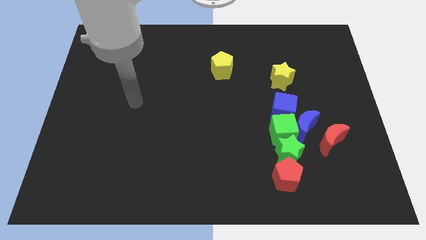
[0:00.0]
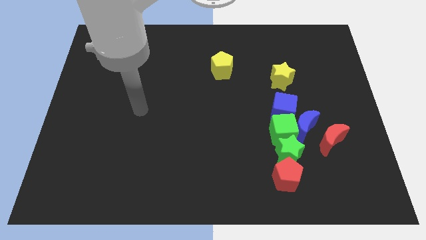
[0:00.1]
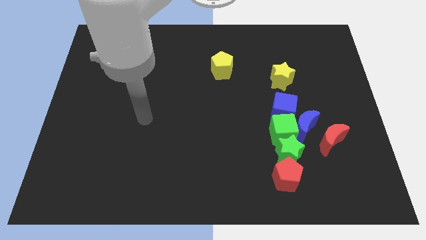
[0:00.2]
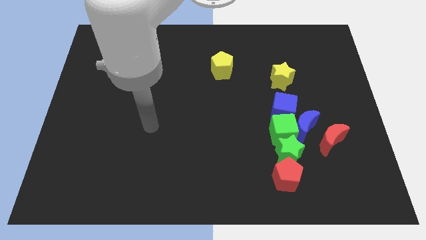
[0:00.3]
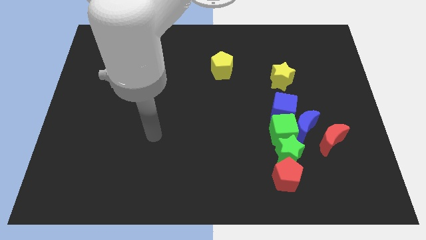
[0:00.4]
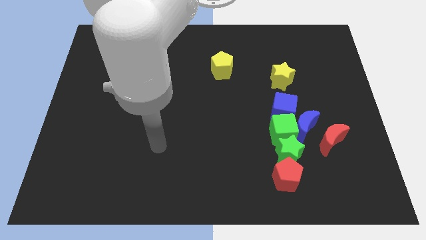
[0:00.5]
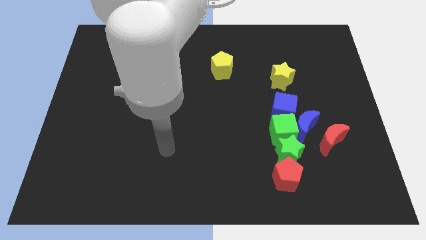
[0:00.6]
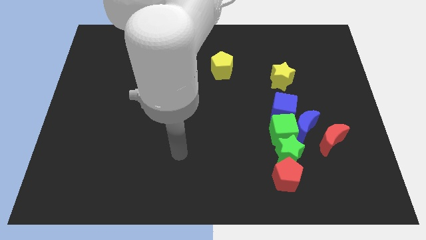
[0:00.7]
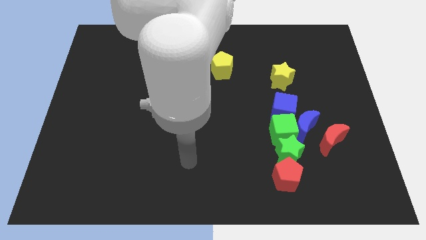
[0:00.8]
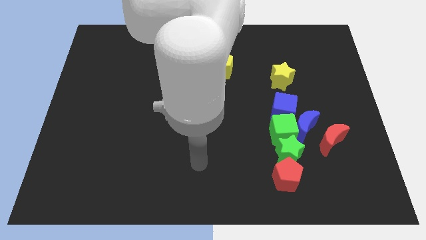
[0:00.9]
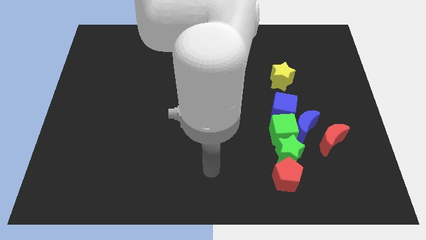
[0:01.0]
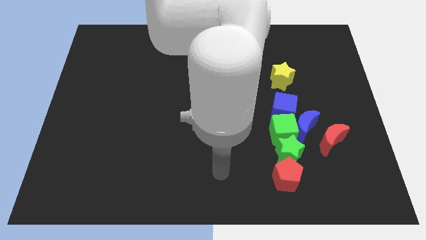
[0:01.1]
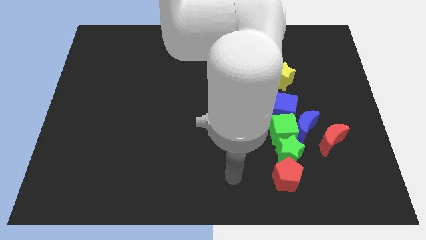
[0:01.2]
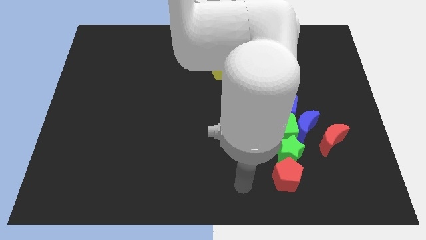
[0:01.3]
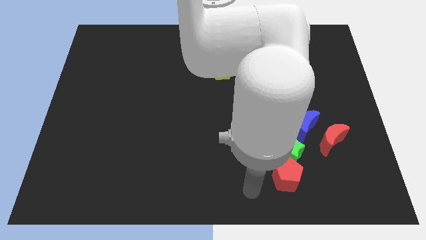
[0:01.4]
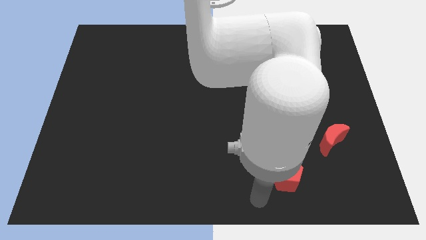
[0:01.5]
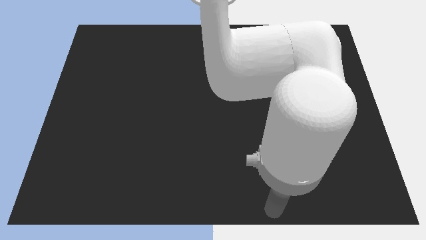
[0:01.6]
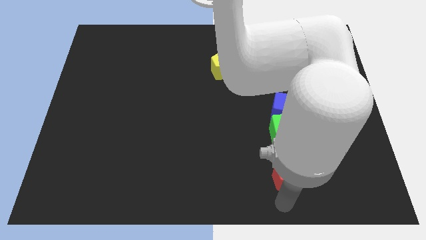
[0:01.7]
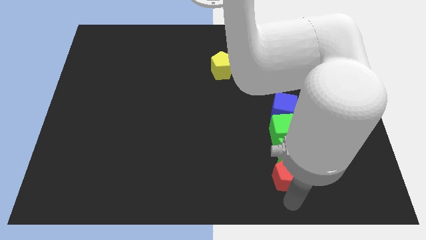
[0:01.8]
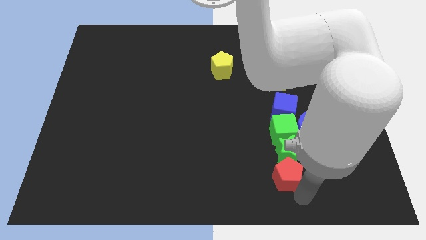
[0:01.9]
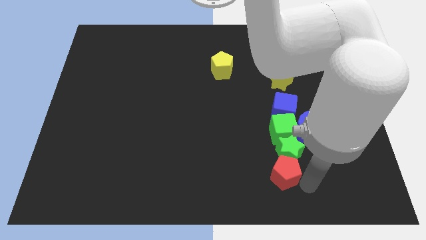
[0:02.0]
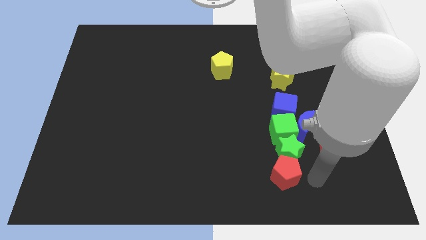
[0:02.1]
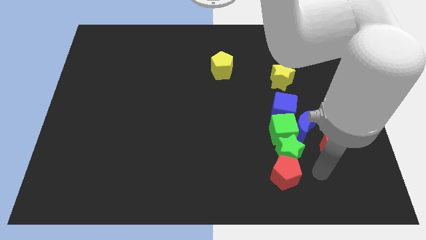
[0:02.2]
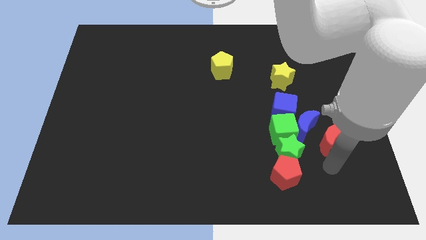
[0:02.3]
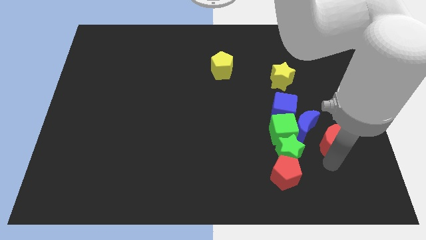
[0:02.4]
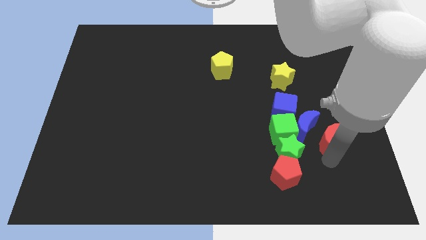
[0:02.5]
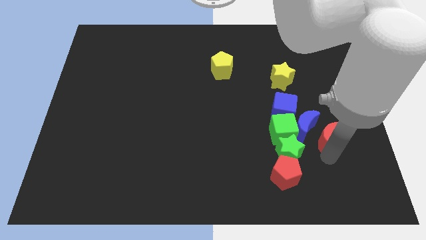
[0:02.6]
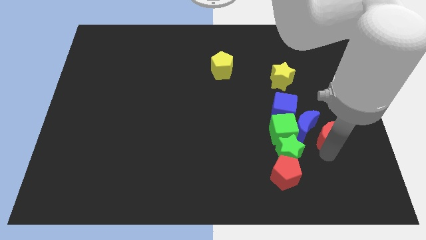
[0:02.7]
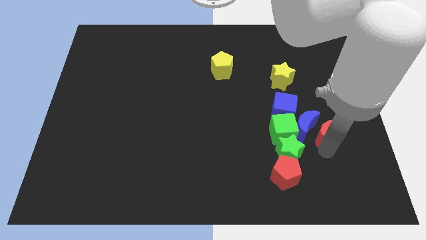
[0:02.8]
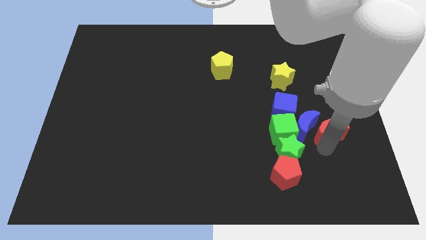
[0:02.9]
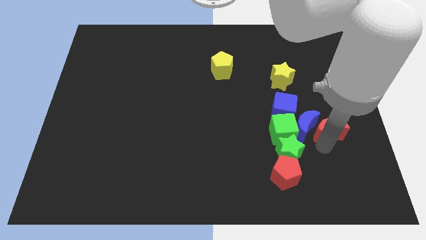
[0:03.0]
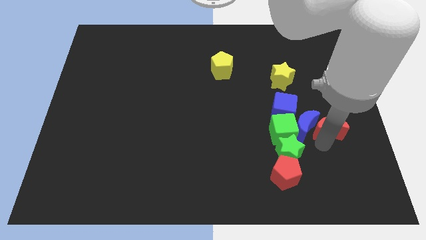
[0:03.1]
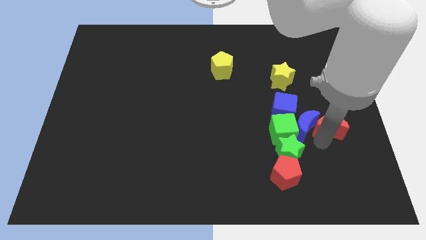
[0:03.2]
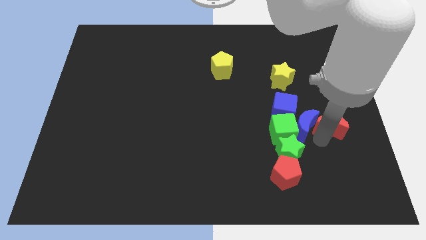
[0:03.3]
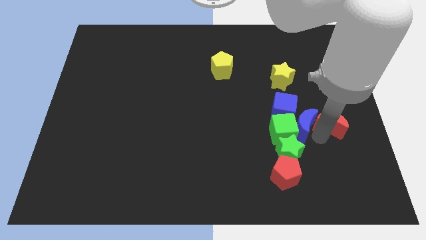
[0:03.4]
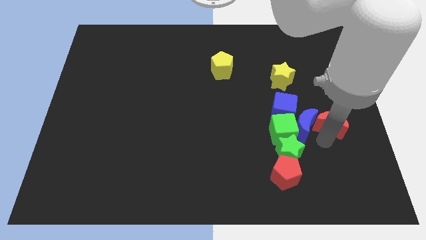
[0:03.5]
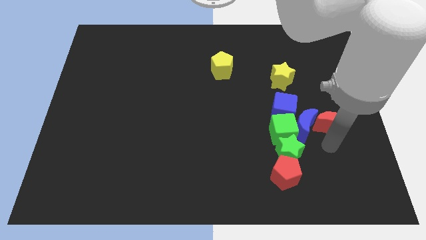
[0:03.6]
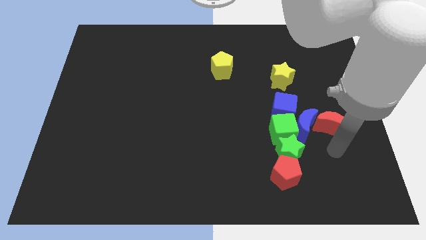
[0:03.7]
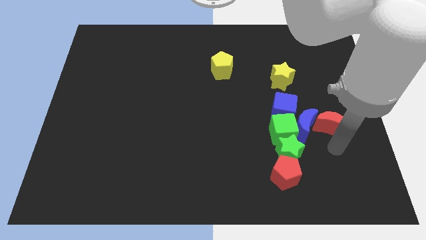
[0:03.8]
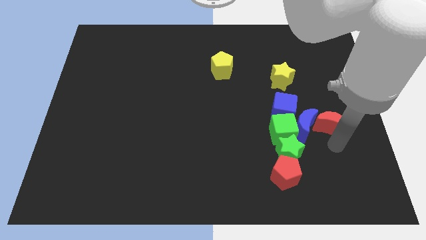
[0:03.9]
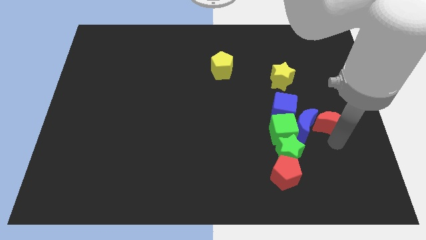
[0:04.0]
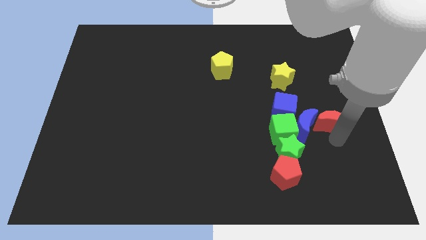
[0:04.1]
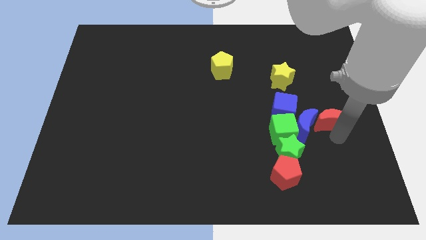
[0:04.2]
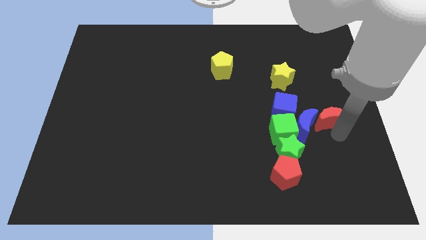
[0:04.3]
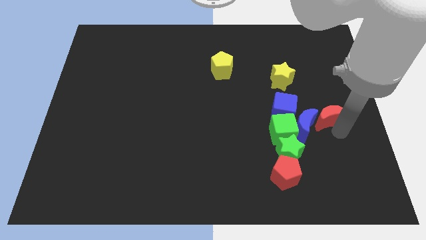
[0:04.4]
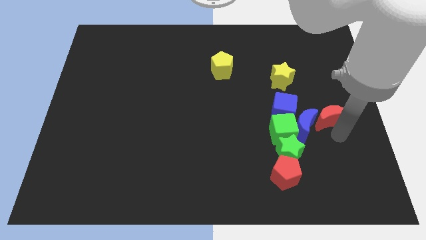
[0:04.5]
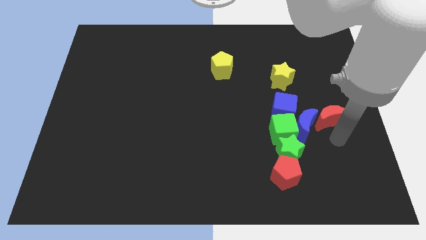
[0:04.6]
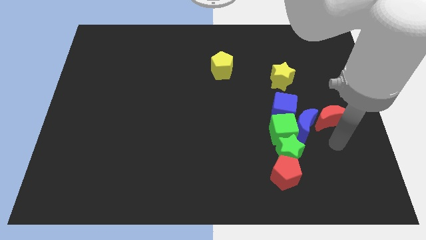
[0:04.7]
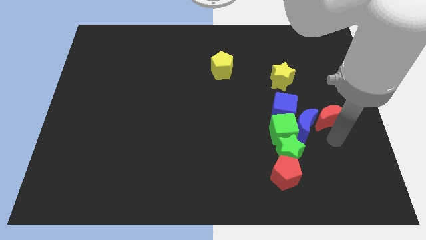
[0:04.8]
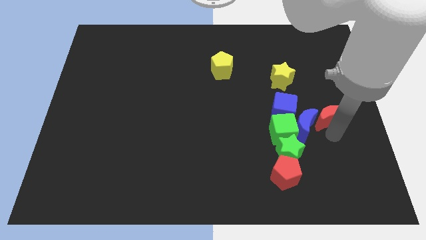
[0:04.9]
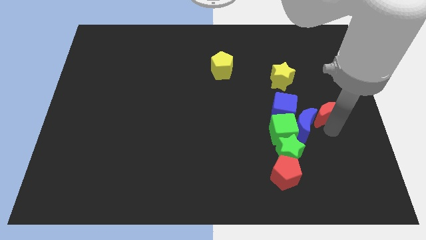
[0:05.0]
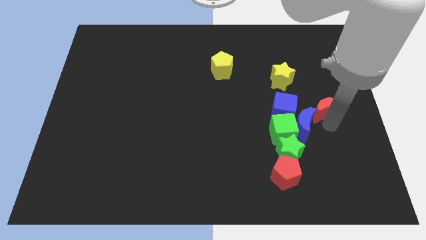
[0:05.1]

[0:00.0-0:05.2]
slightly push the red moon up

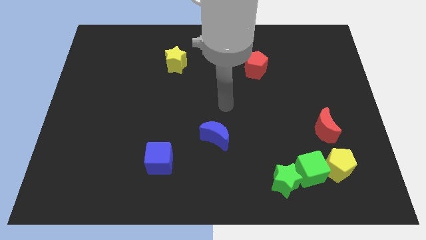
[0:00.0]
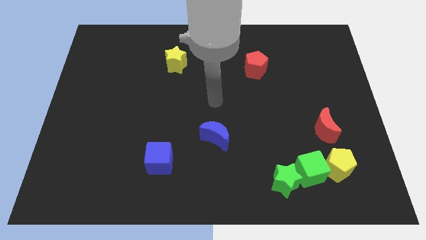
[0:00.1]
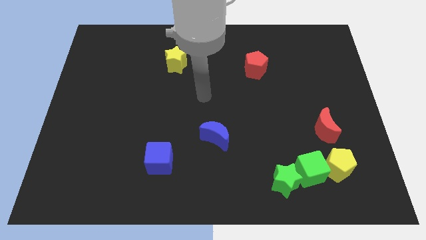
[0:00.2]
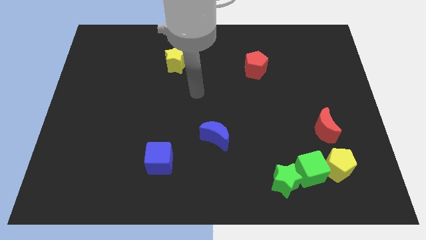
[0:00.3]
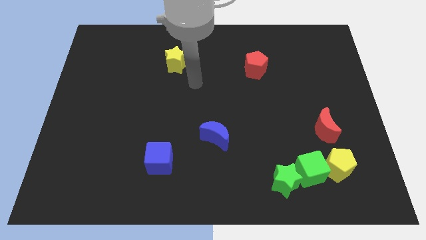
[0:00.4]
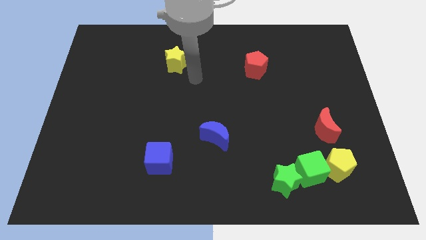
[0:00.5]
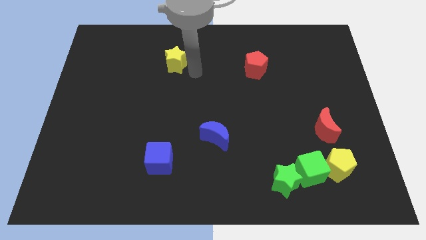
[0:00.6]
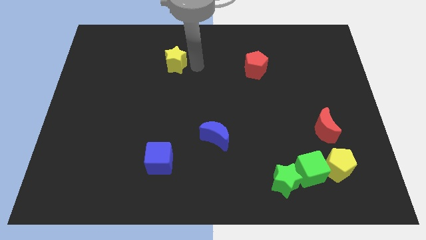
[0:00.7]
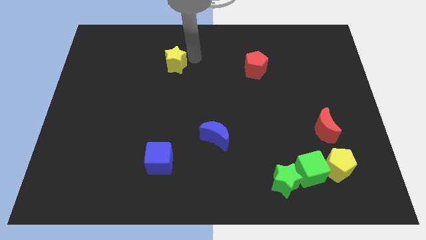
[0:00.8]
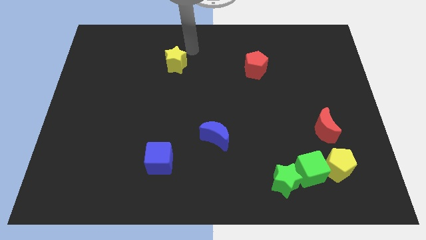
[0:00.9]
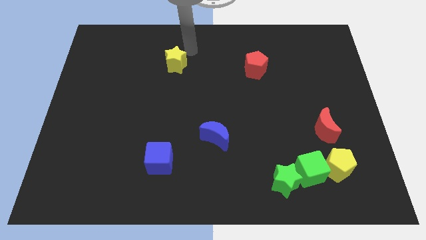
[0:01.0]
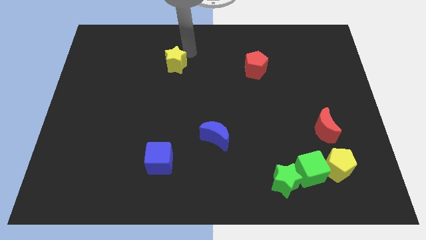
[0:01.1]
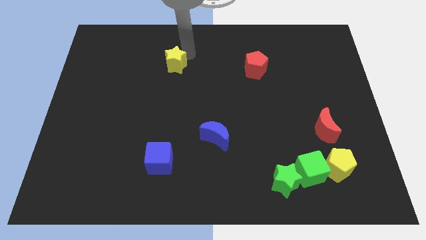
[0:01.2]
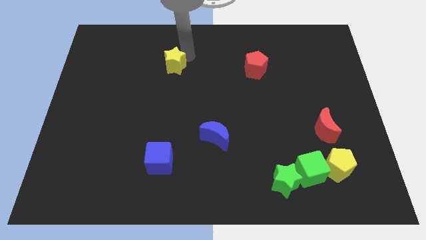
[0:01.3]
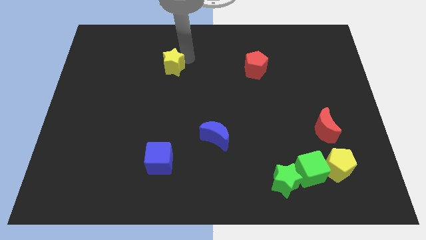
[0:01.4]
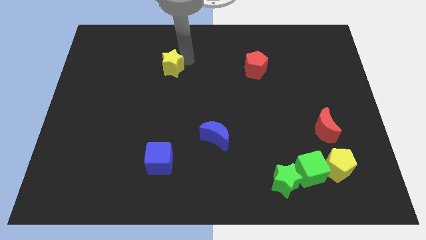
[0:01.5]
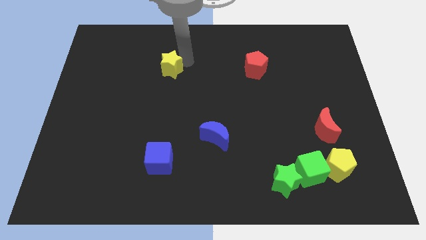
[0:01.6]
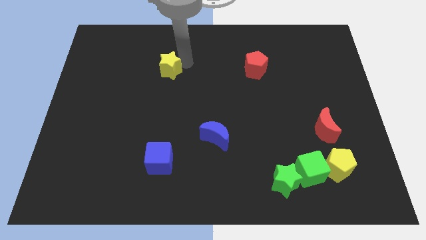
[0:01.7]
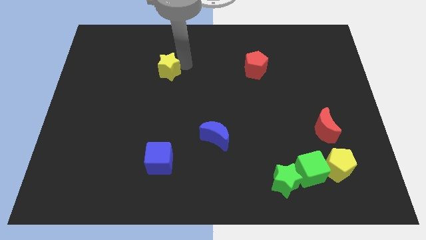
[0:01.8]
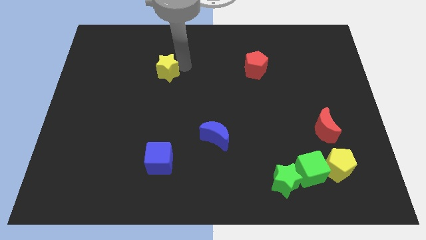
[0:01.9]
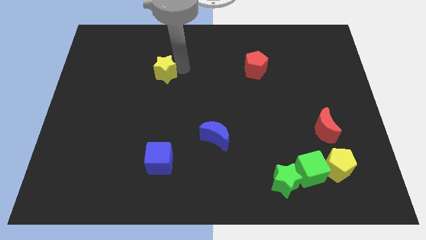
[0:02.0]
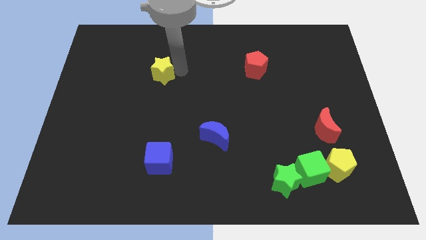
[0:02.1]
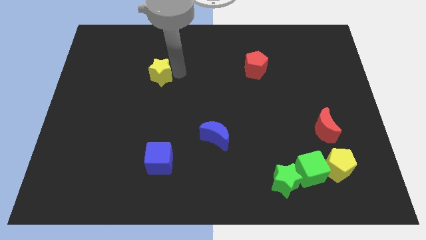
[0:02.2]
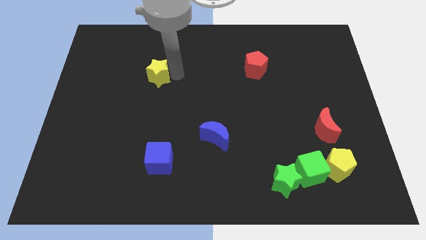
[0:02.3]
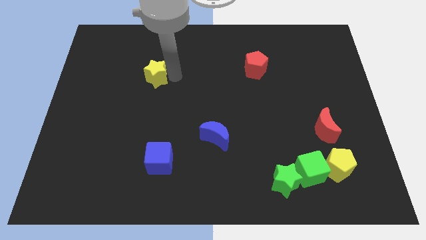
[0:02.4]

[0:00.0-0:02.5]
move the yellow star a bit downwards and to the left diagonally

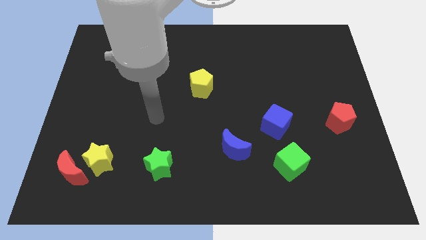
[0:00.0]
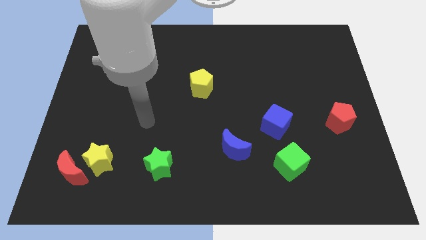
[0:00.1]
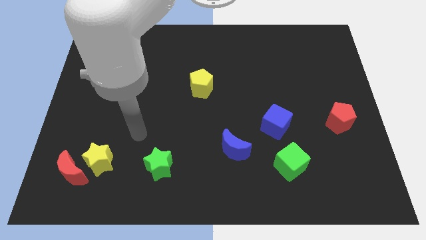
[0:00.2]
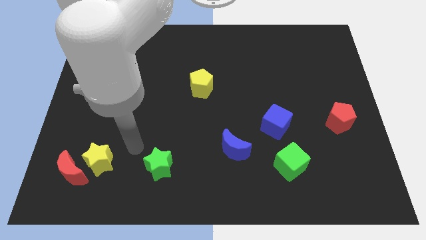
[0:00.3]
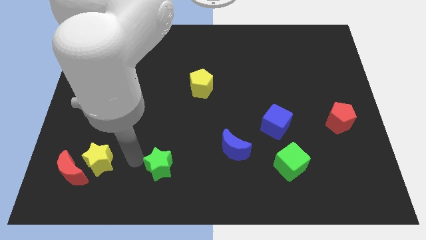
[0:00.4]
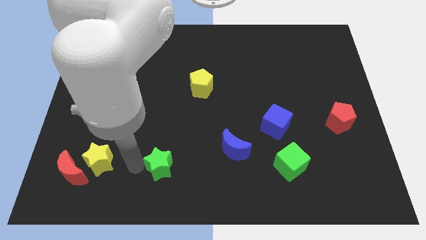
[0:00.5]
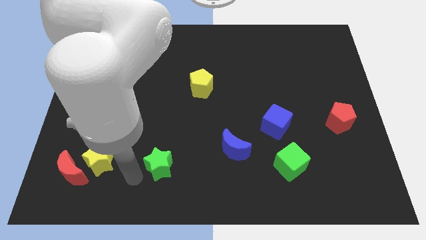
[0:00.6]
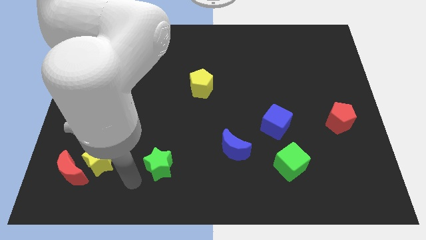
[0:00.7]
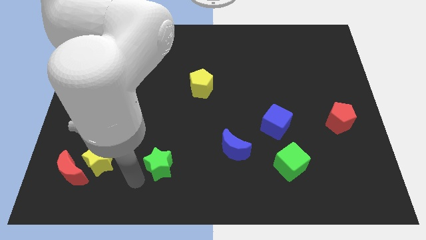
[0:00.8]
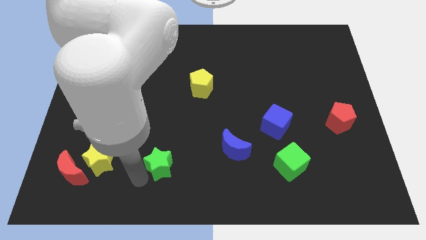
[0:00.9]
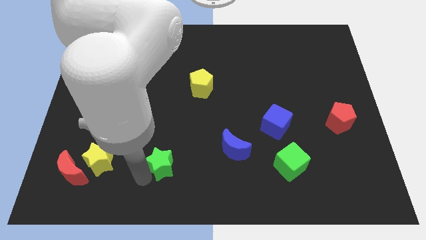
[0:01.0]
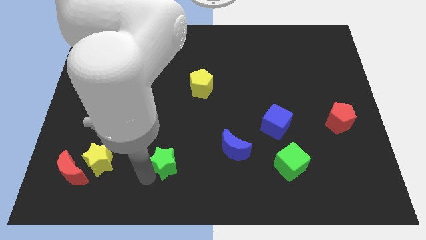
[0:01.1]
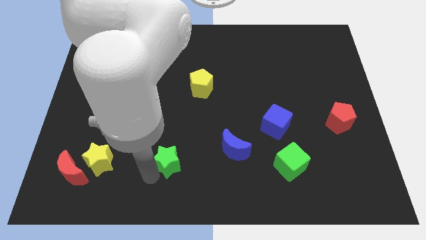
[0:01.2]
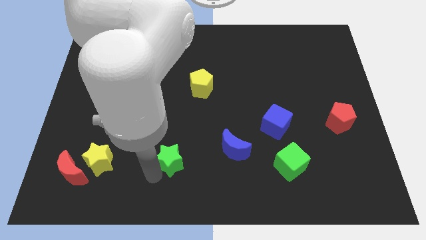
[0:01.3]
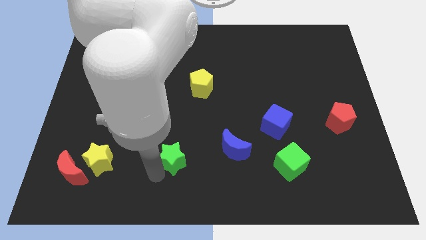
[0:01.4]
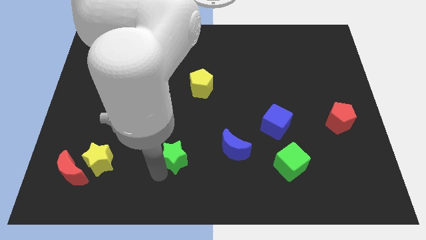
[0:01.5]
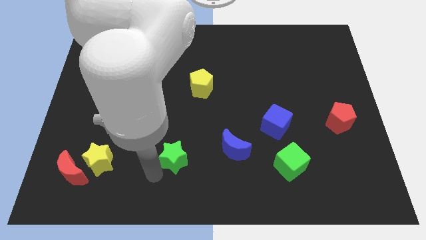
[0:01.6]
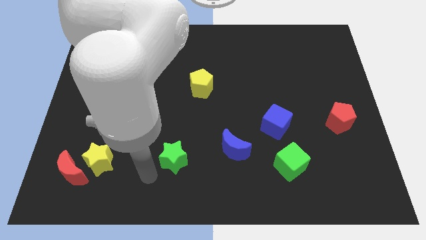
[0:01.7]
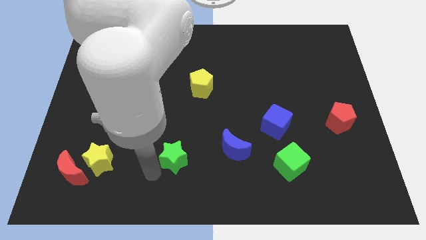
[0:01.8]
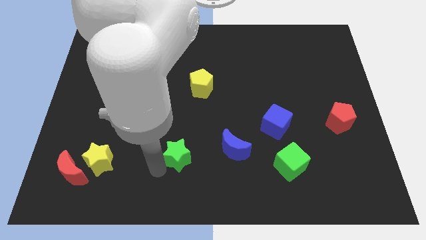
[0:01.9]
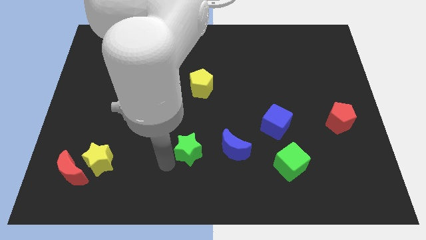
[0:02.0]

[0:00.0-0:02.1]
move the green star somewhat up and right
